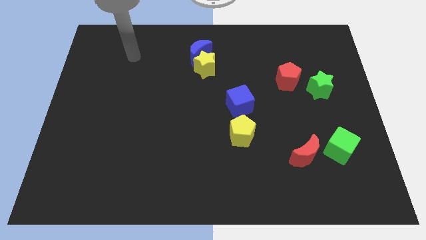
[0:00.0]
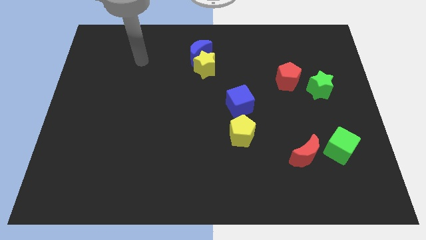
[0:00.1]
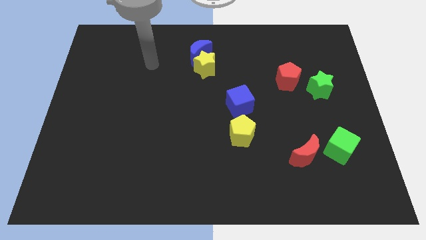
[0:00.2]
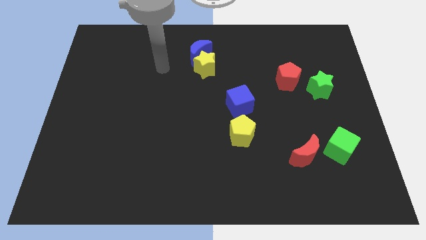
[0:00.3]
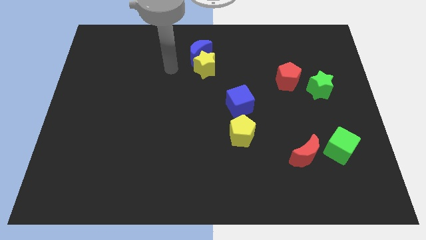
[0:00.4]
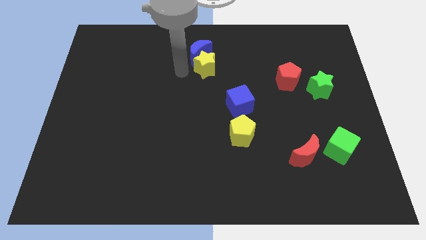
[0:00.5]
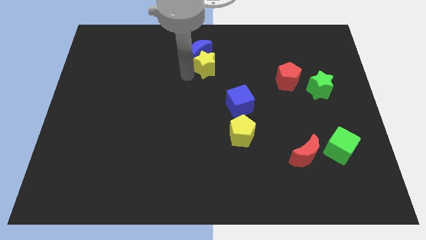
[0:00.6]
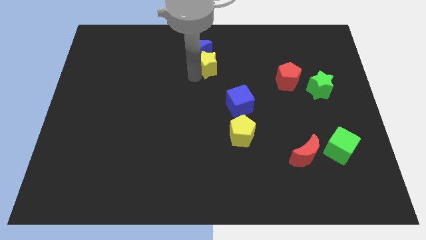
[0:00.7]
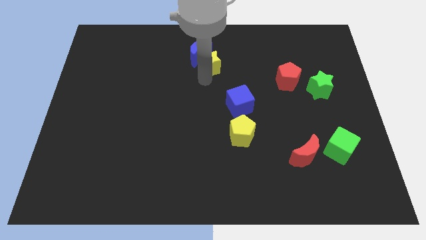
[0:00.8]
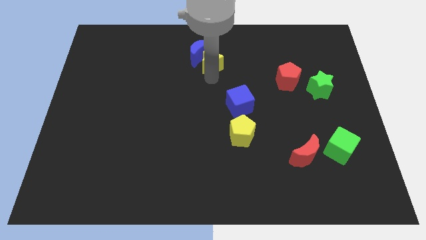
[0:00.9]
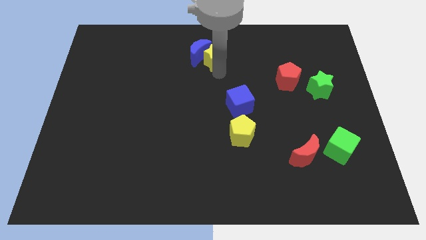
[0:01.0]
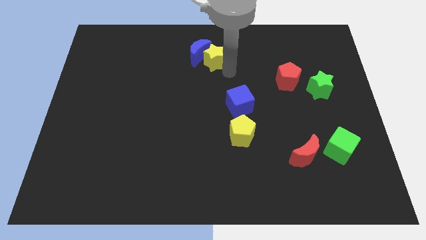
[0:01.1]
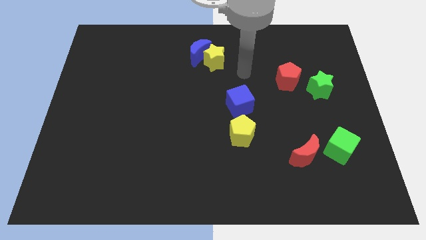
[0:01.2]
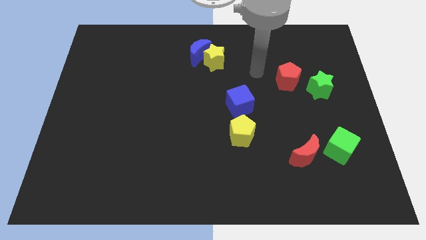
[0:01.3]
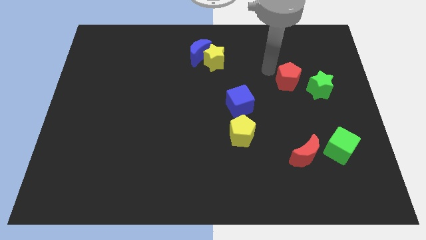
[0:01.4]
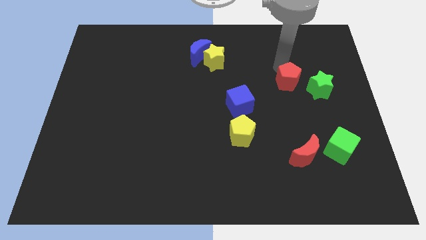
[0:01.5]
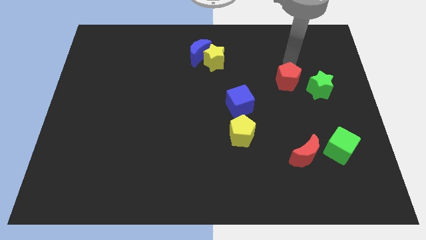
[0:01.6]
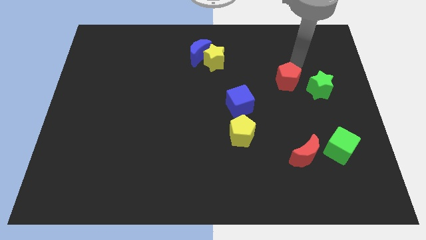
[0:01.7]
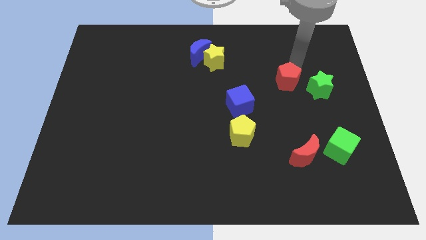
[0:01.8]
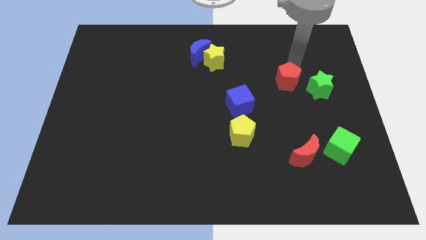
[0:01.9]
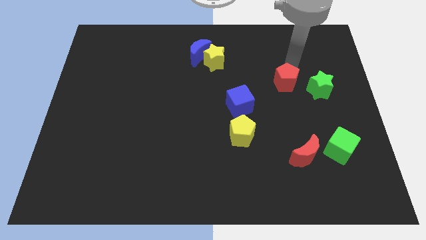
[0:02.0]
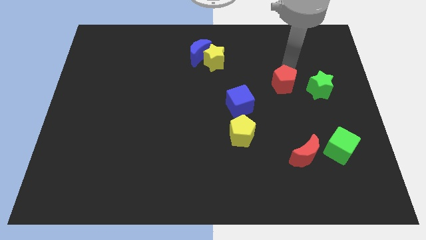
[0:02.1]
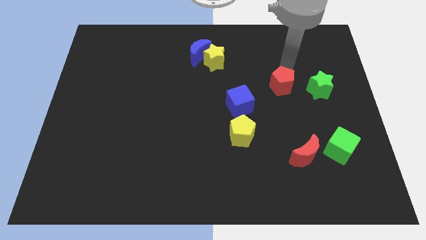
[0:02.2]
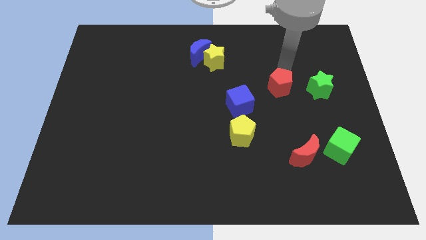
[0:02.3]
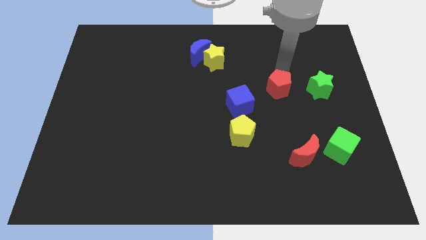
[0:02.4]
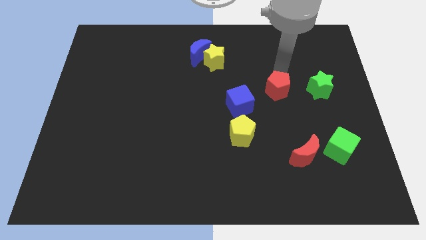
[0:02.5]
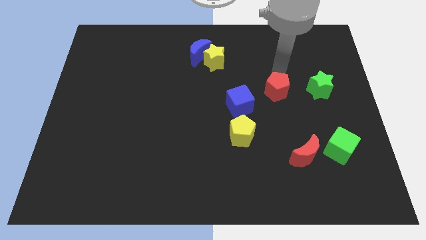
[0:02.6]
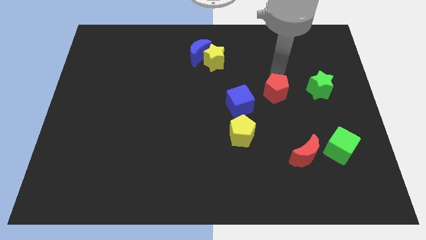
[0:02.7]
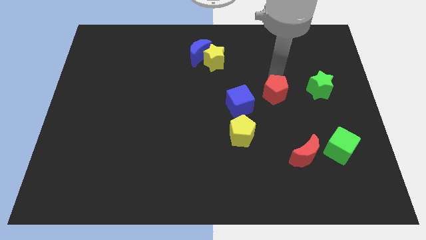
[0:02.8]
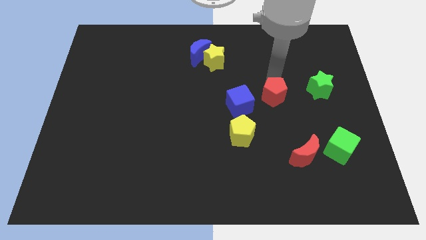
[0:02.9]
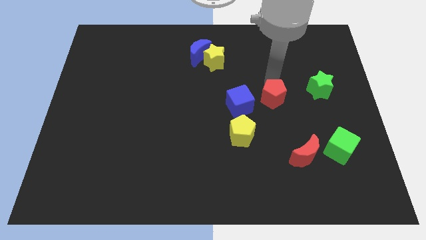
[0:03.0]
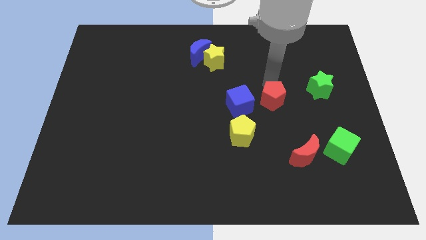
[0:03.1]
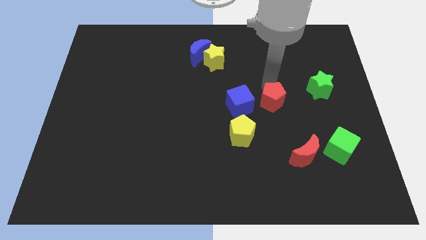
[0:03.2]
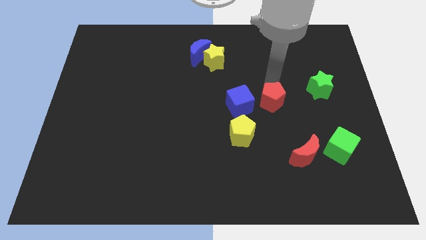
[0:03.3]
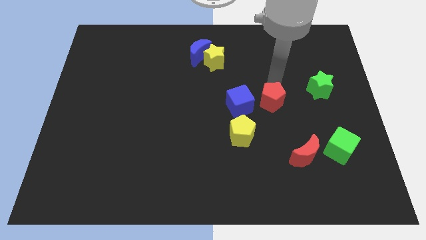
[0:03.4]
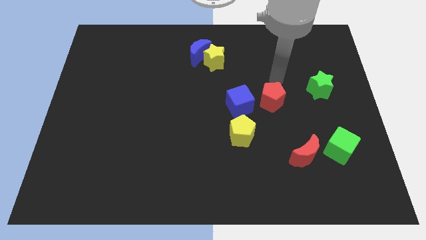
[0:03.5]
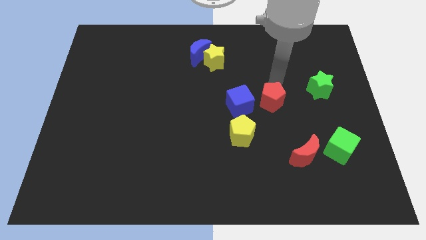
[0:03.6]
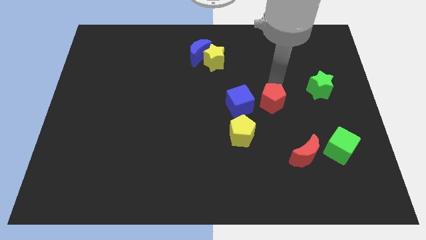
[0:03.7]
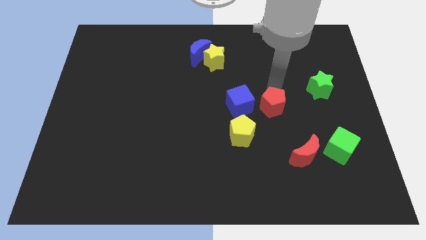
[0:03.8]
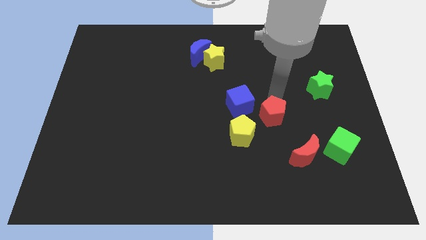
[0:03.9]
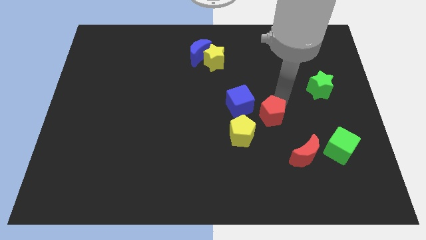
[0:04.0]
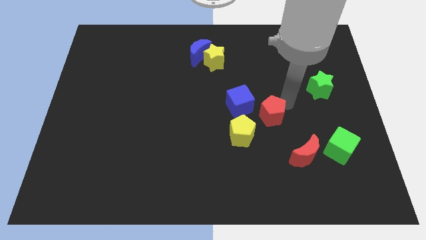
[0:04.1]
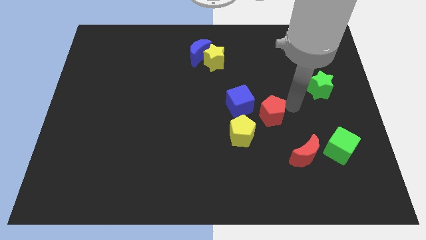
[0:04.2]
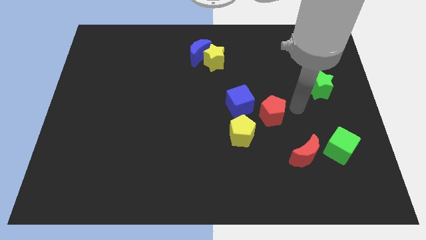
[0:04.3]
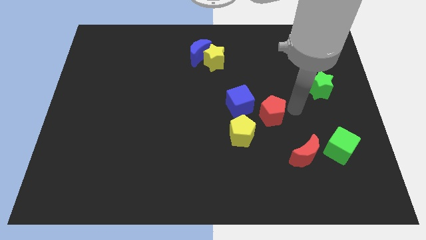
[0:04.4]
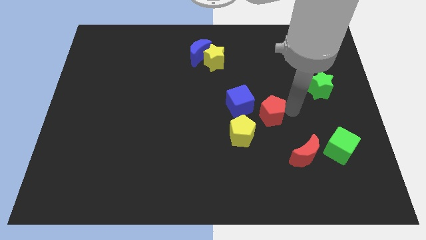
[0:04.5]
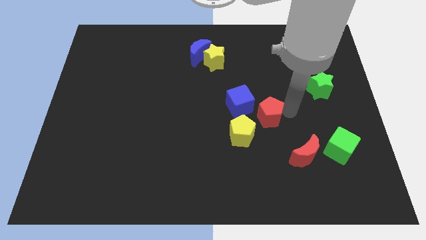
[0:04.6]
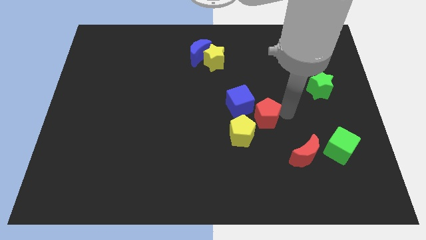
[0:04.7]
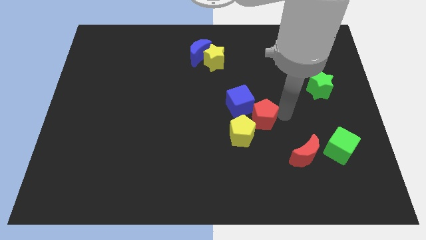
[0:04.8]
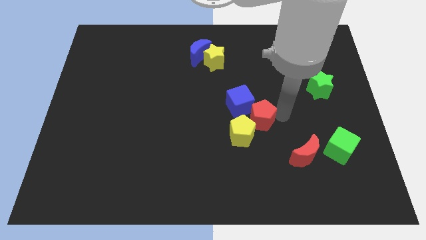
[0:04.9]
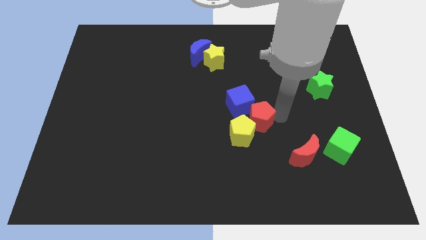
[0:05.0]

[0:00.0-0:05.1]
slide the red pentagon close to the yellow pentagon

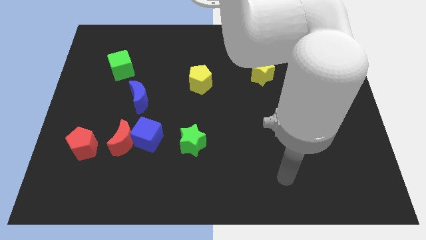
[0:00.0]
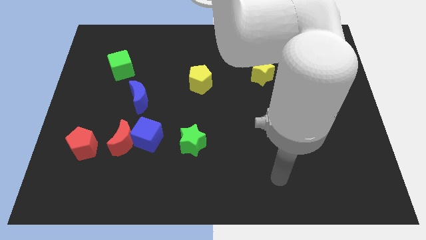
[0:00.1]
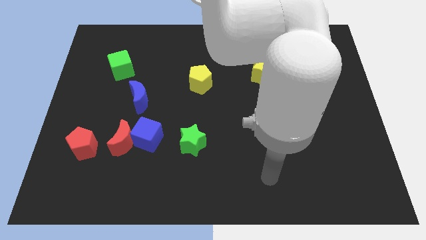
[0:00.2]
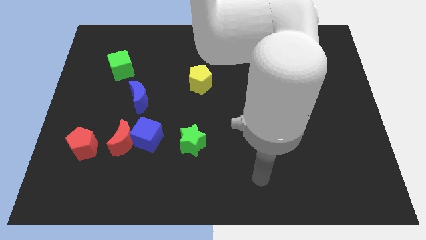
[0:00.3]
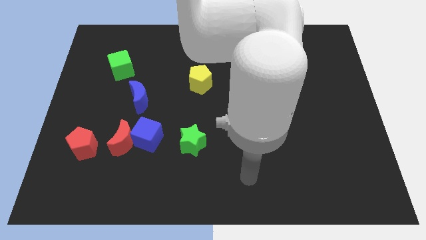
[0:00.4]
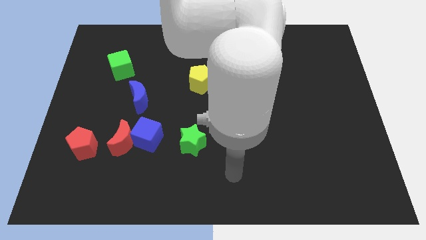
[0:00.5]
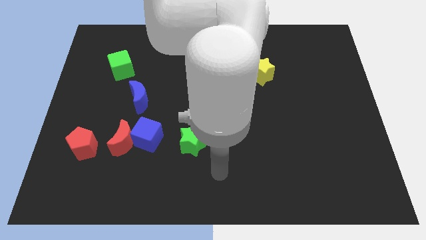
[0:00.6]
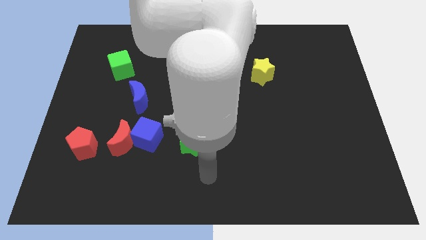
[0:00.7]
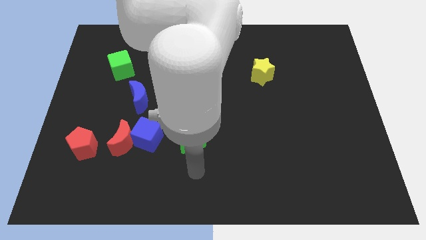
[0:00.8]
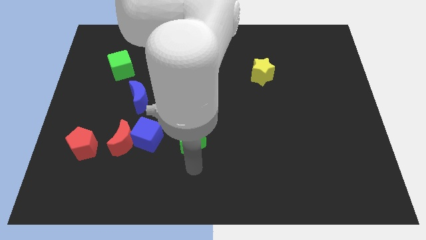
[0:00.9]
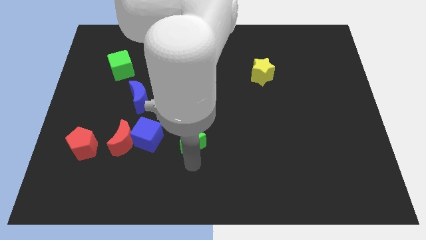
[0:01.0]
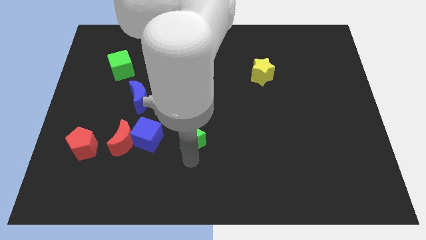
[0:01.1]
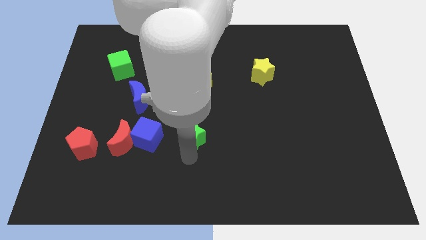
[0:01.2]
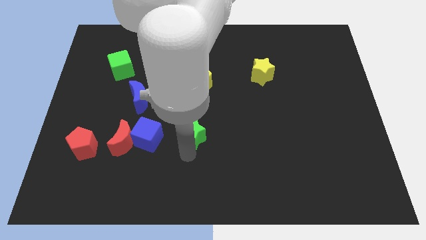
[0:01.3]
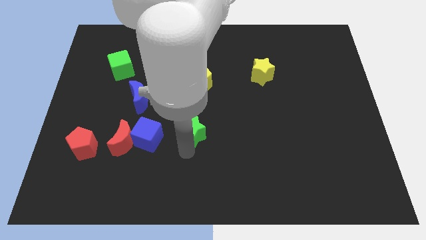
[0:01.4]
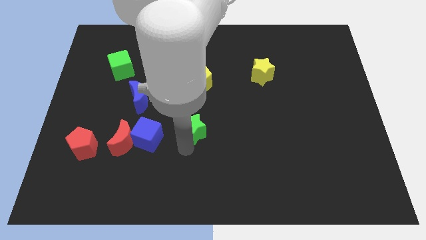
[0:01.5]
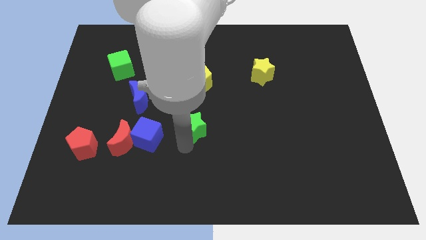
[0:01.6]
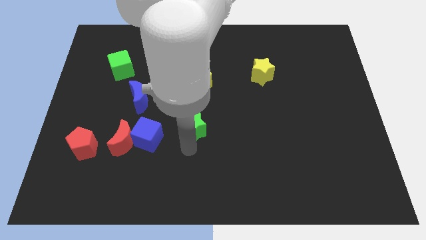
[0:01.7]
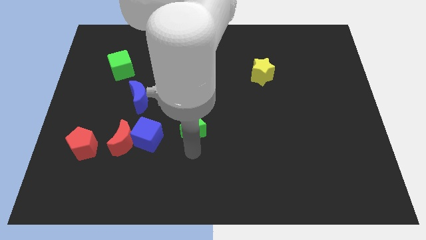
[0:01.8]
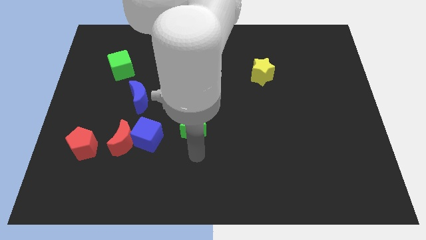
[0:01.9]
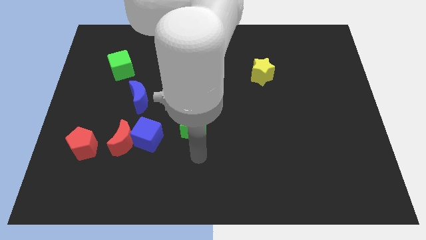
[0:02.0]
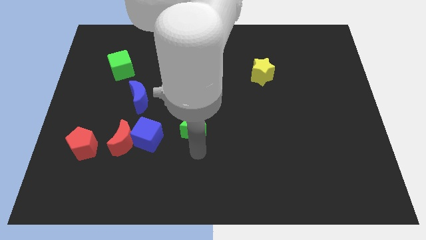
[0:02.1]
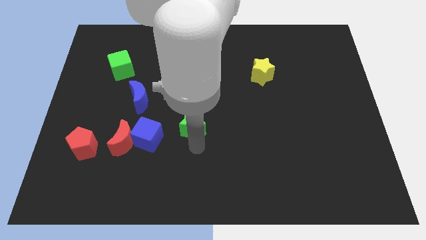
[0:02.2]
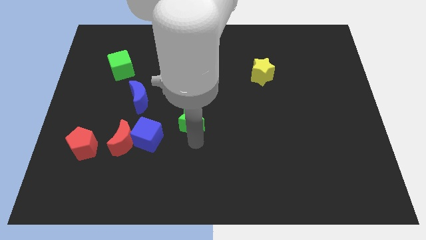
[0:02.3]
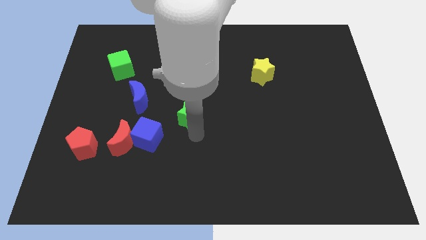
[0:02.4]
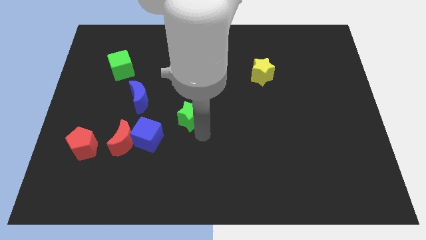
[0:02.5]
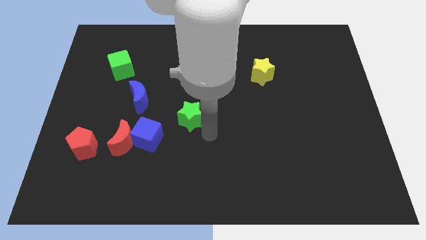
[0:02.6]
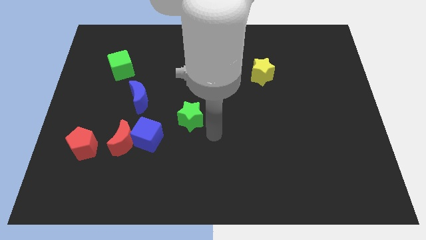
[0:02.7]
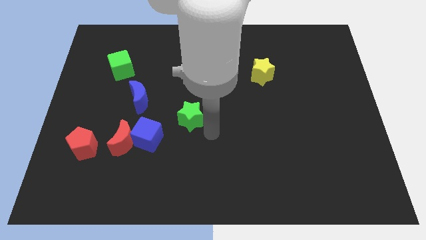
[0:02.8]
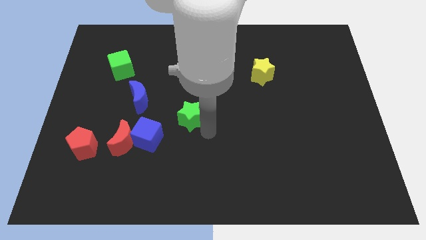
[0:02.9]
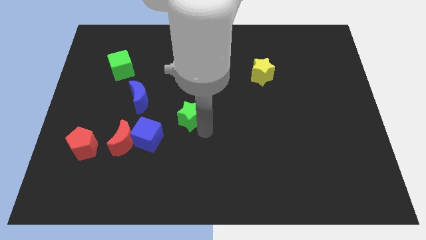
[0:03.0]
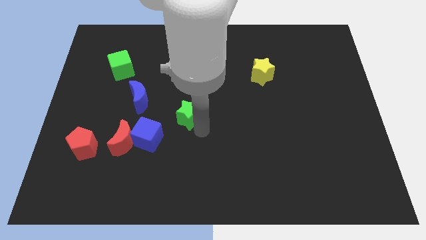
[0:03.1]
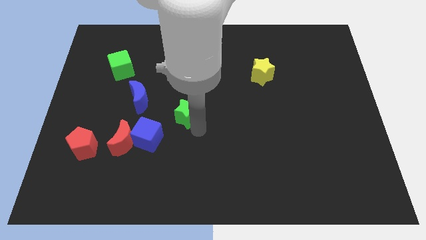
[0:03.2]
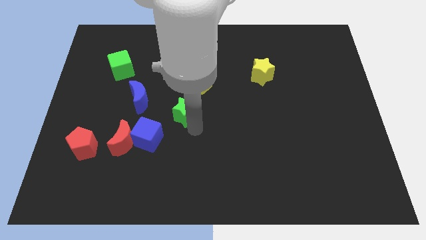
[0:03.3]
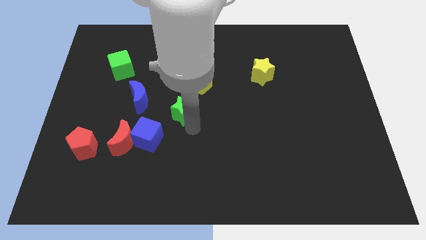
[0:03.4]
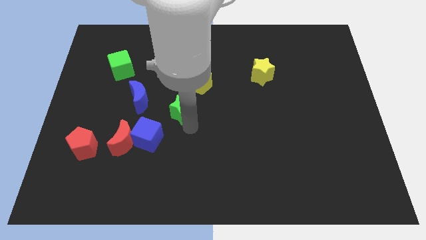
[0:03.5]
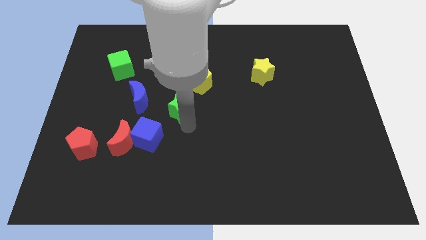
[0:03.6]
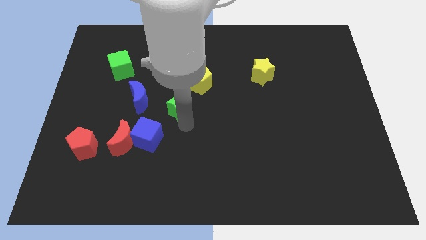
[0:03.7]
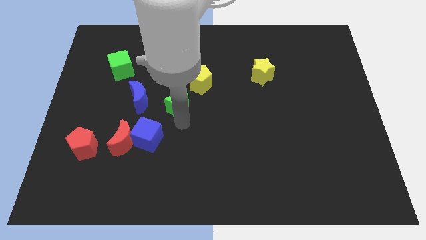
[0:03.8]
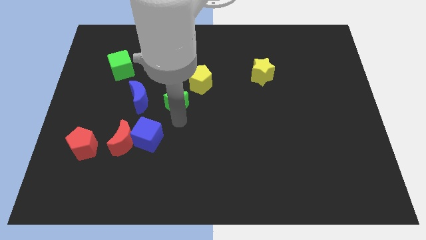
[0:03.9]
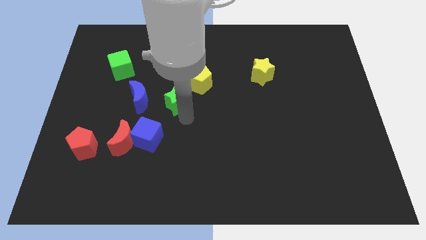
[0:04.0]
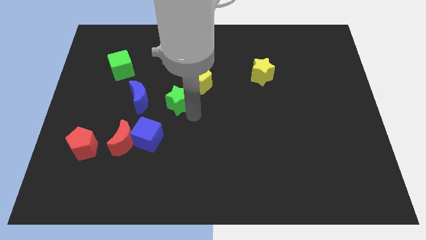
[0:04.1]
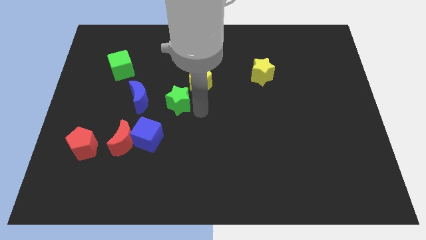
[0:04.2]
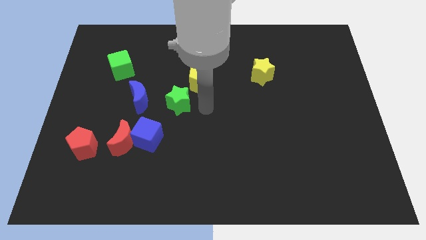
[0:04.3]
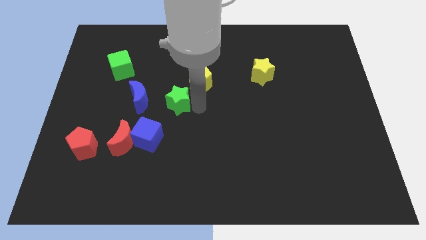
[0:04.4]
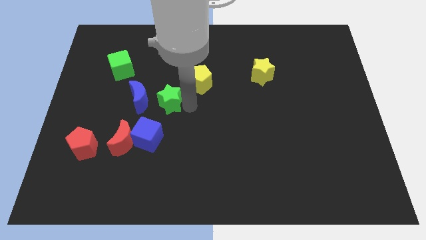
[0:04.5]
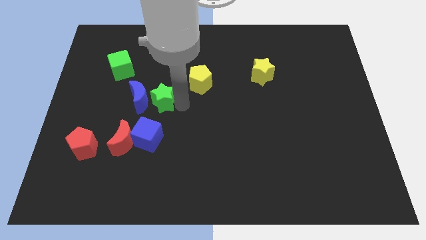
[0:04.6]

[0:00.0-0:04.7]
put the green star to the blue moon
